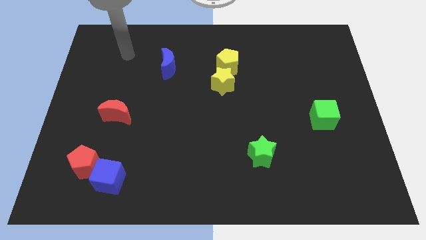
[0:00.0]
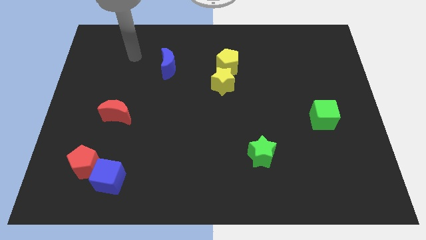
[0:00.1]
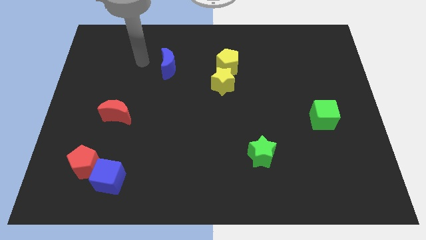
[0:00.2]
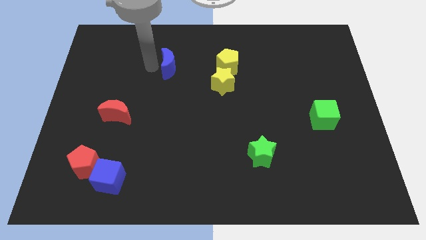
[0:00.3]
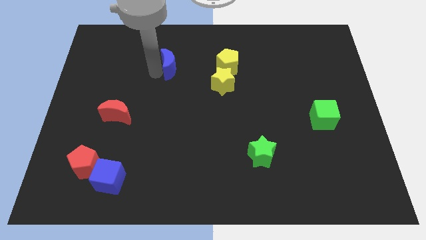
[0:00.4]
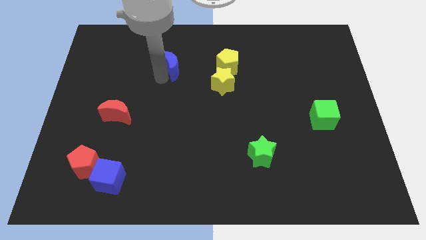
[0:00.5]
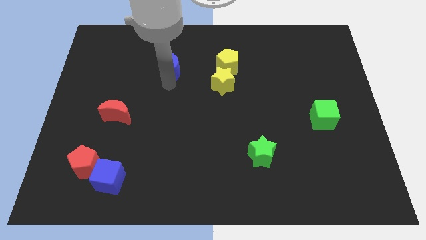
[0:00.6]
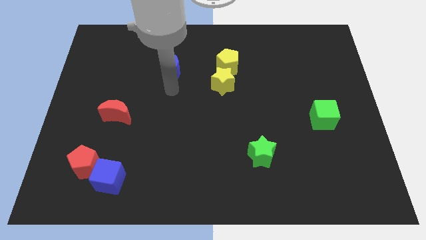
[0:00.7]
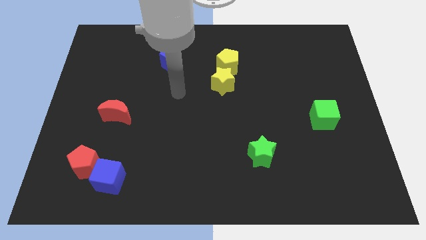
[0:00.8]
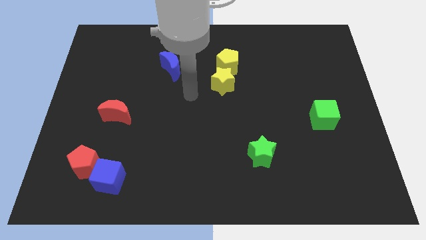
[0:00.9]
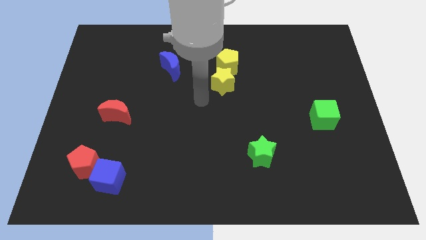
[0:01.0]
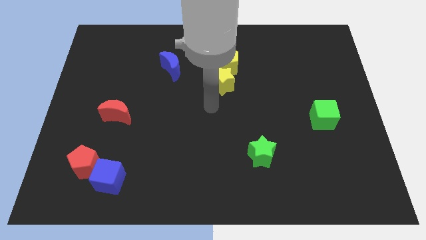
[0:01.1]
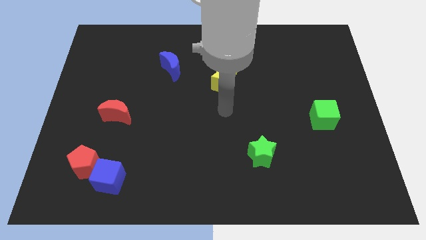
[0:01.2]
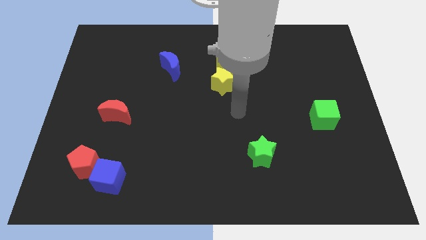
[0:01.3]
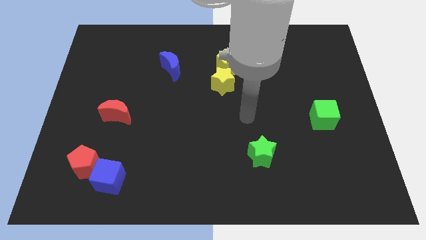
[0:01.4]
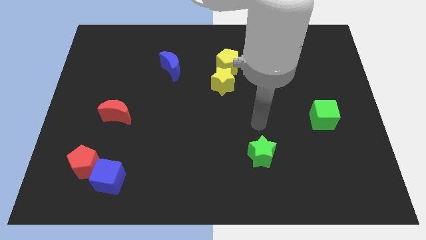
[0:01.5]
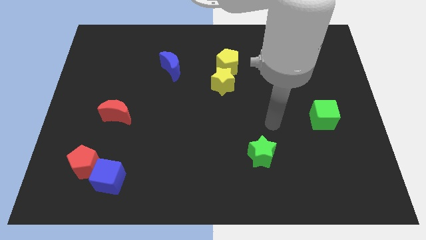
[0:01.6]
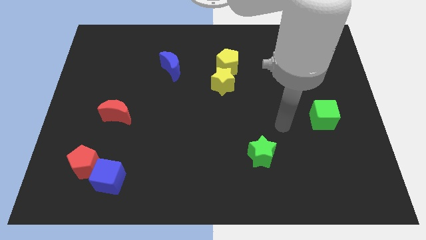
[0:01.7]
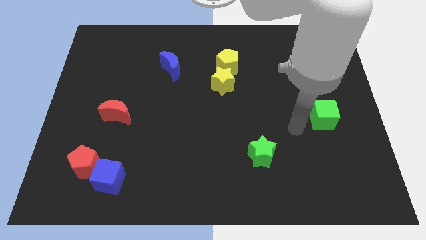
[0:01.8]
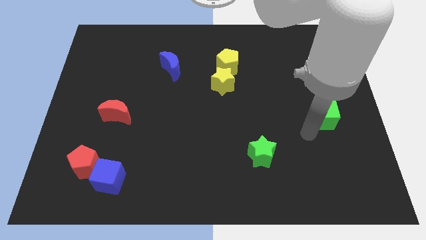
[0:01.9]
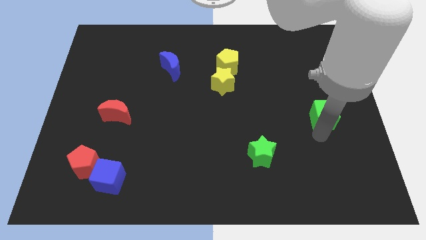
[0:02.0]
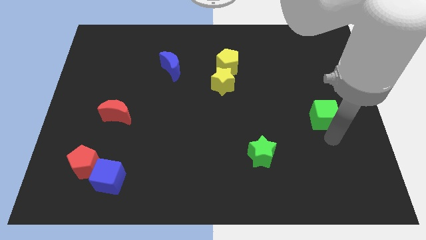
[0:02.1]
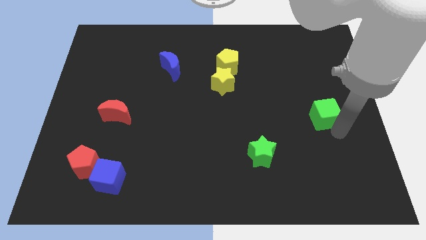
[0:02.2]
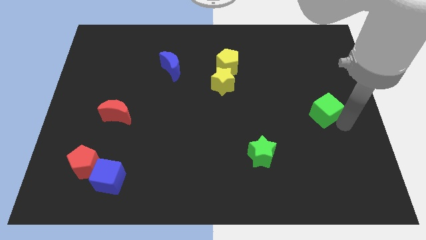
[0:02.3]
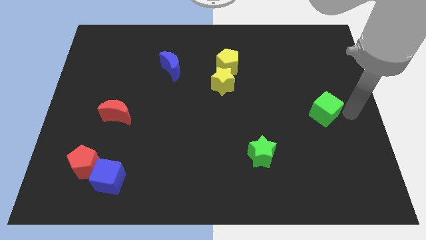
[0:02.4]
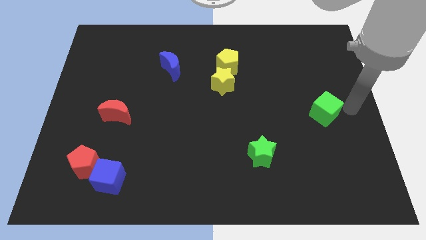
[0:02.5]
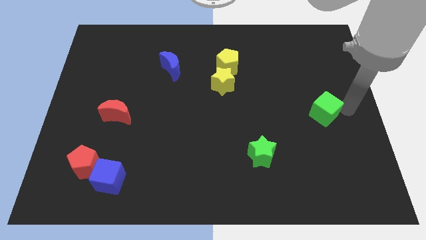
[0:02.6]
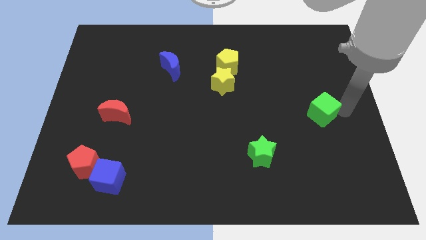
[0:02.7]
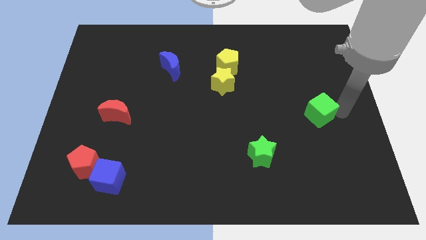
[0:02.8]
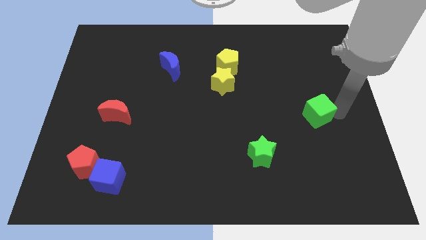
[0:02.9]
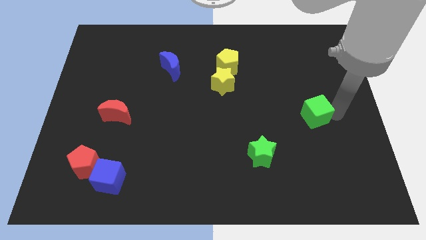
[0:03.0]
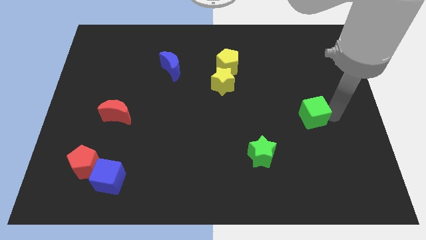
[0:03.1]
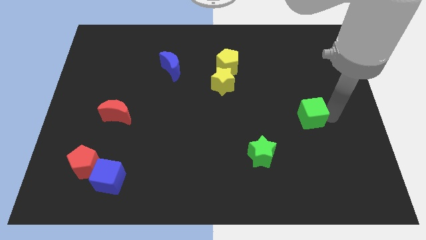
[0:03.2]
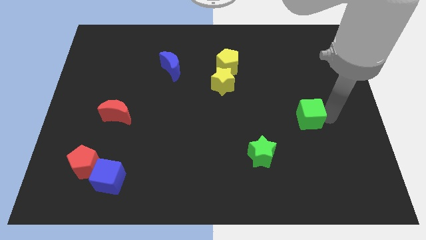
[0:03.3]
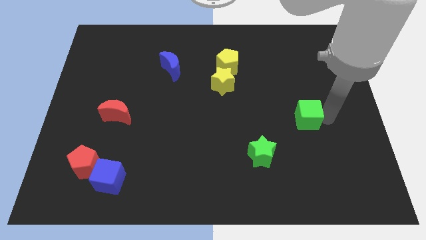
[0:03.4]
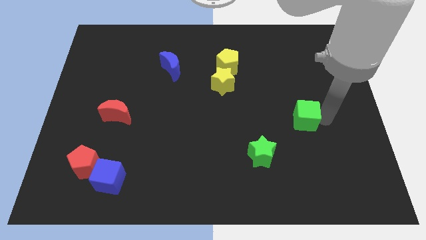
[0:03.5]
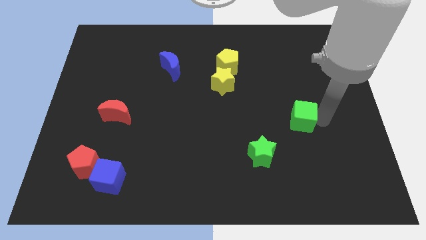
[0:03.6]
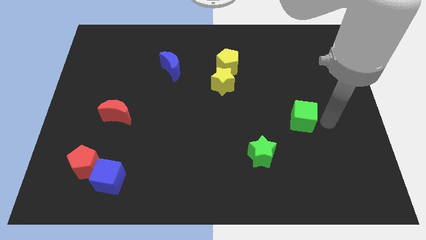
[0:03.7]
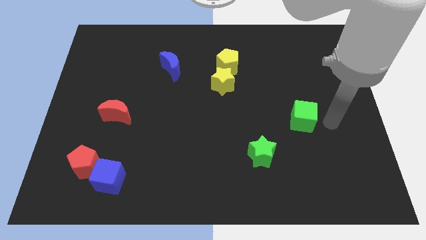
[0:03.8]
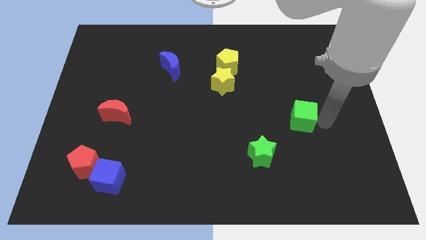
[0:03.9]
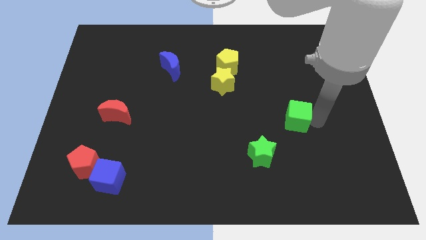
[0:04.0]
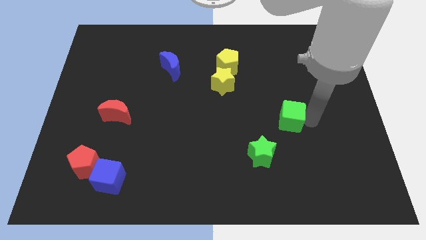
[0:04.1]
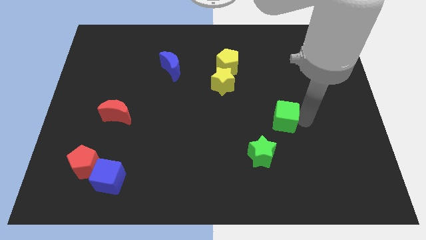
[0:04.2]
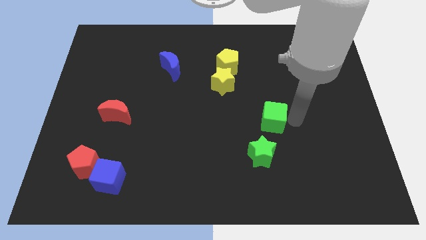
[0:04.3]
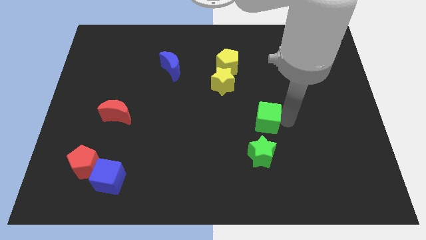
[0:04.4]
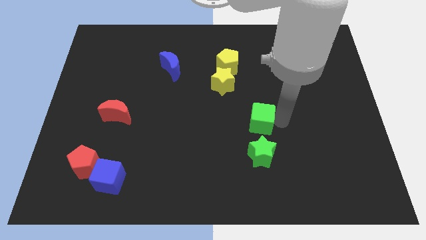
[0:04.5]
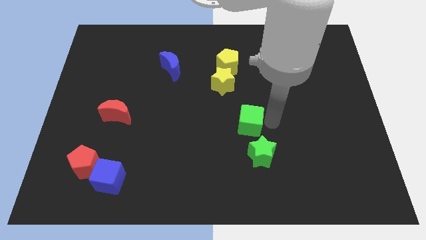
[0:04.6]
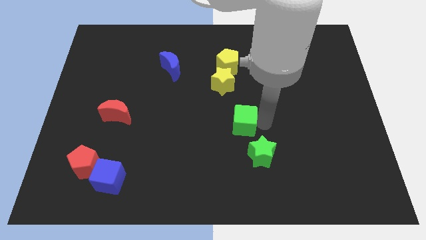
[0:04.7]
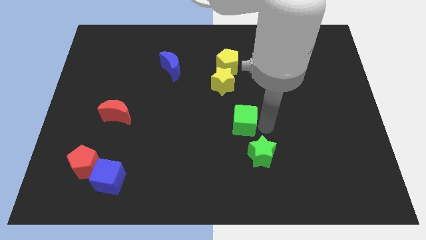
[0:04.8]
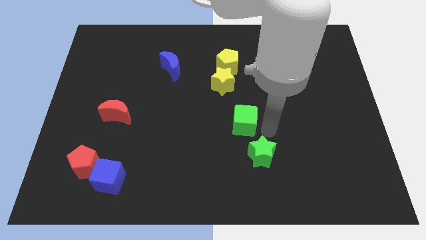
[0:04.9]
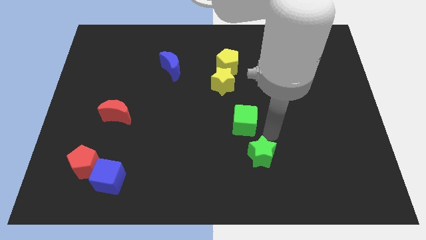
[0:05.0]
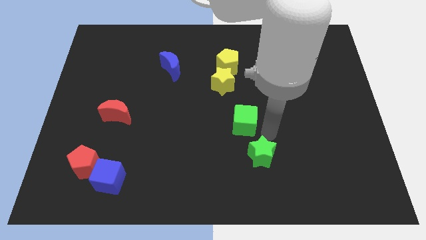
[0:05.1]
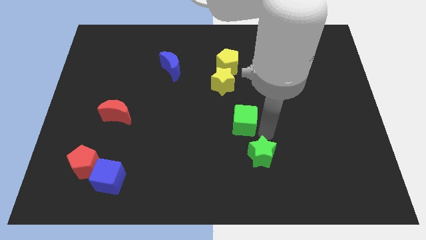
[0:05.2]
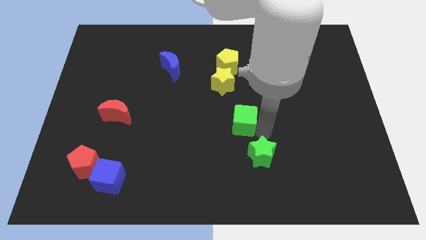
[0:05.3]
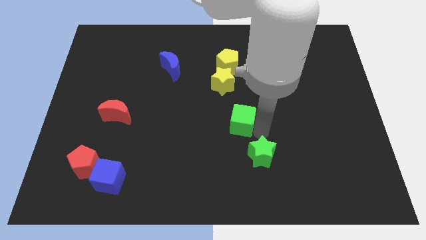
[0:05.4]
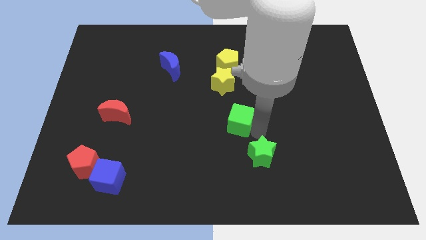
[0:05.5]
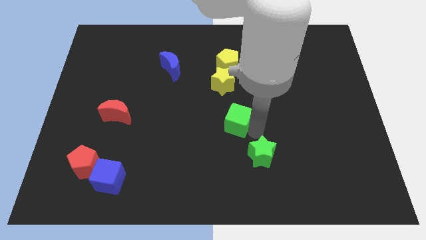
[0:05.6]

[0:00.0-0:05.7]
move the green cube to the left

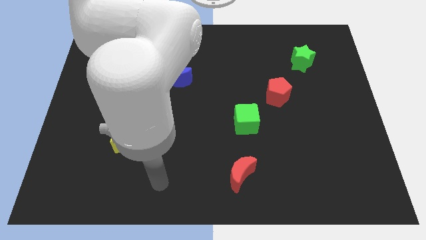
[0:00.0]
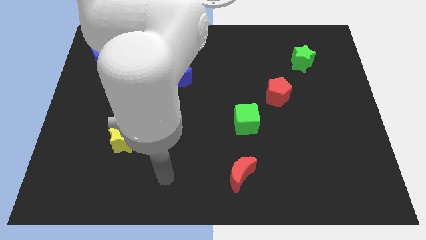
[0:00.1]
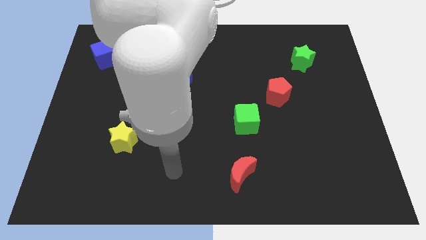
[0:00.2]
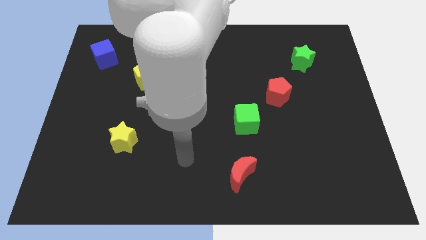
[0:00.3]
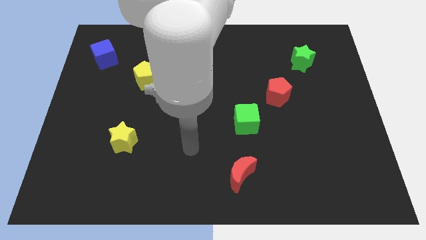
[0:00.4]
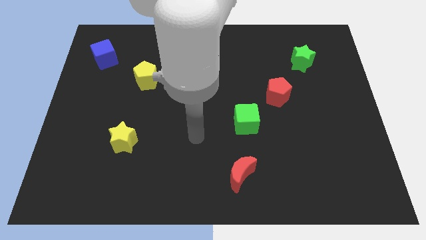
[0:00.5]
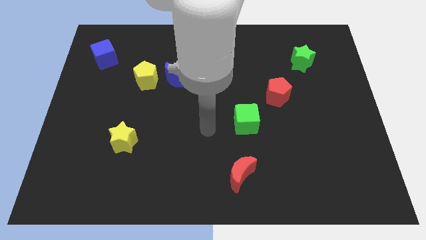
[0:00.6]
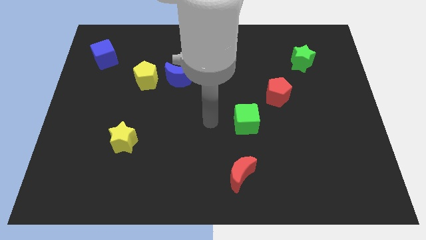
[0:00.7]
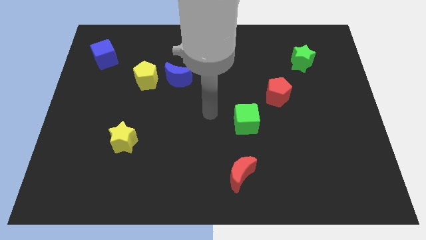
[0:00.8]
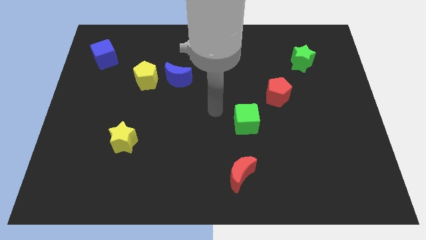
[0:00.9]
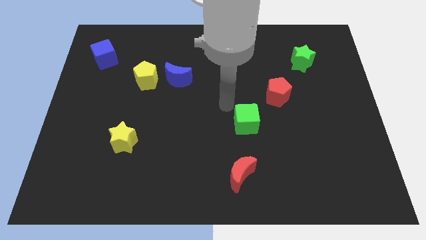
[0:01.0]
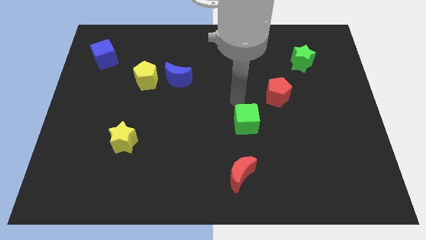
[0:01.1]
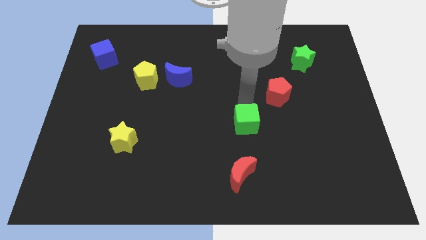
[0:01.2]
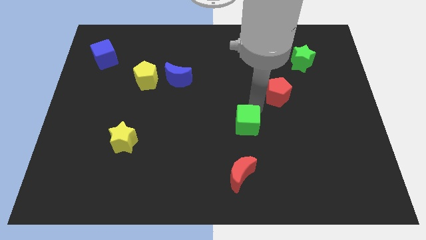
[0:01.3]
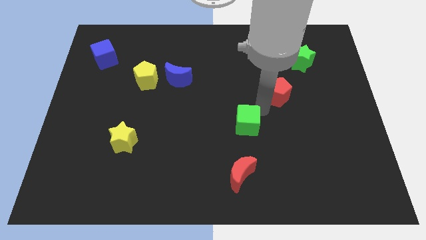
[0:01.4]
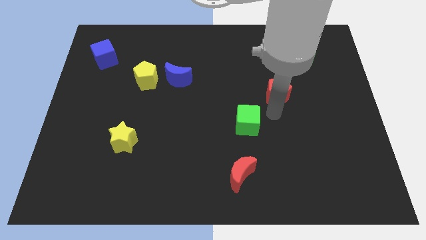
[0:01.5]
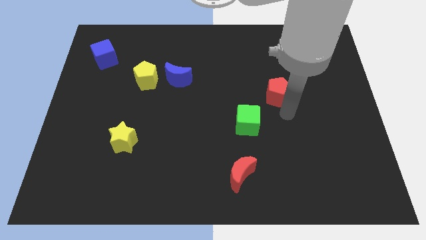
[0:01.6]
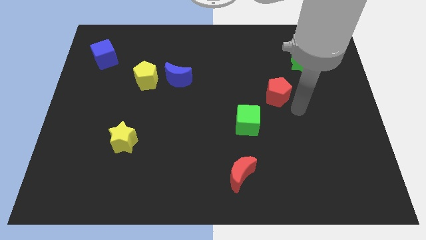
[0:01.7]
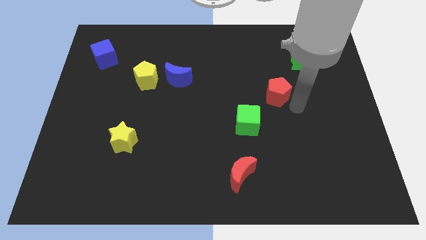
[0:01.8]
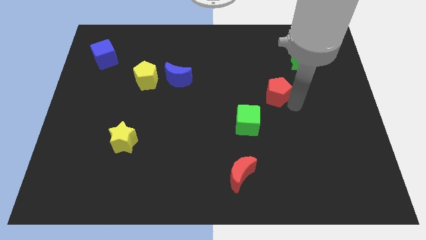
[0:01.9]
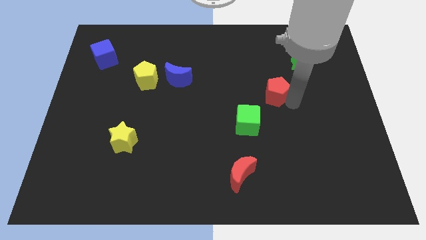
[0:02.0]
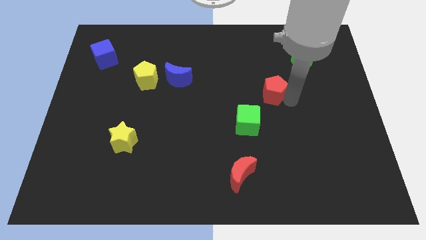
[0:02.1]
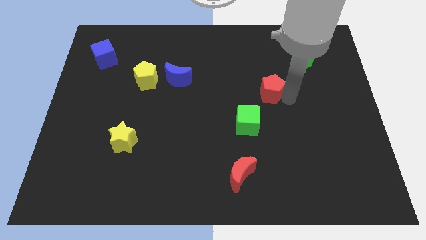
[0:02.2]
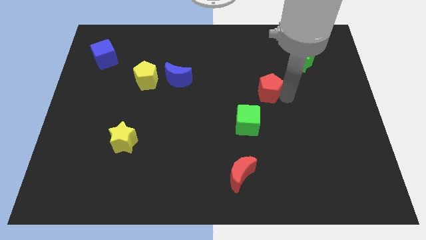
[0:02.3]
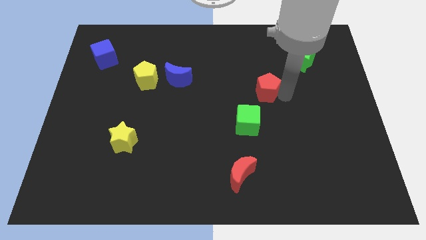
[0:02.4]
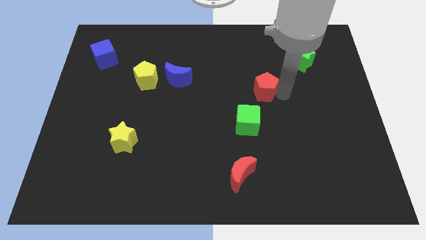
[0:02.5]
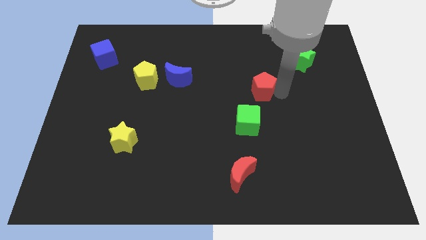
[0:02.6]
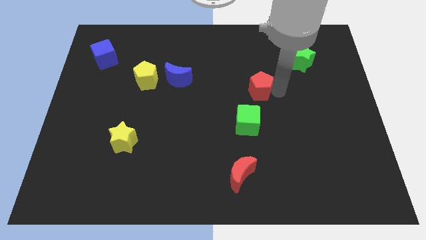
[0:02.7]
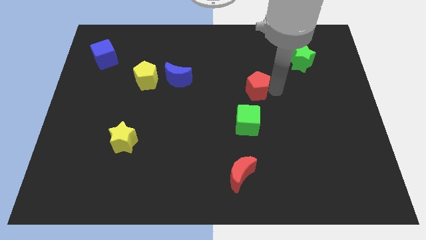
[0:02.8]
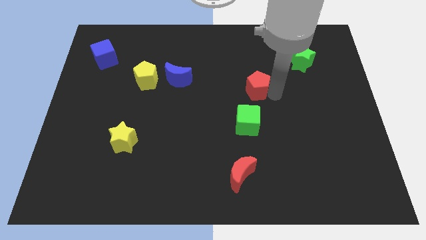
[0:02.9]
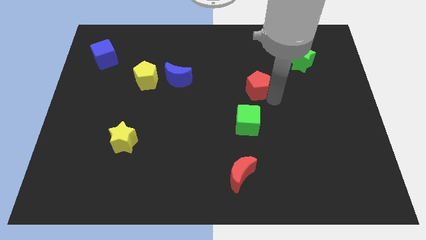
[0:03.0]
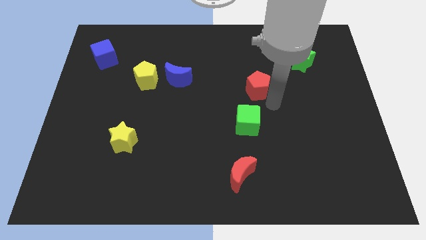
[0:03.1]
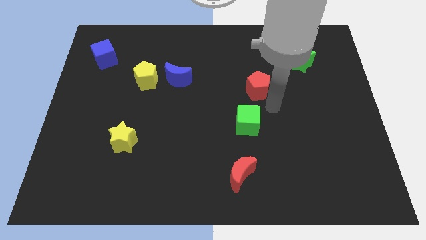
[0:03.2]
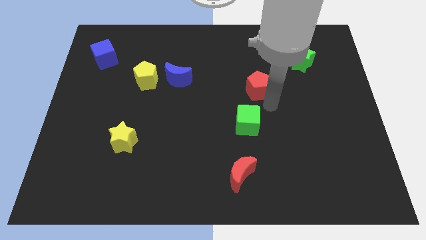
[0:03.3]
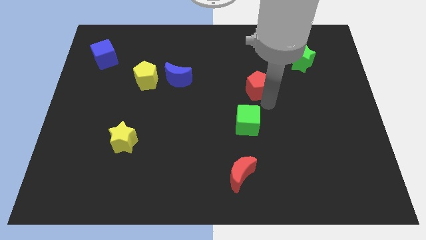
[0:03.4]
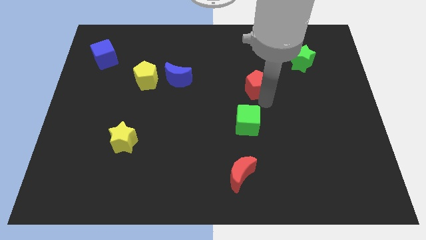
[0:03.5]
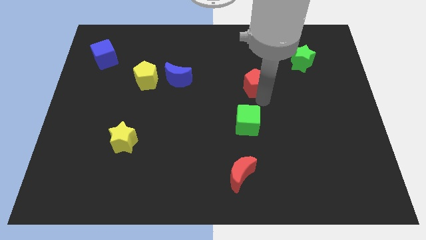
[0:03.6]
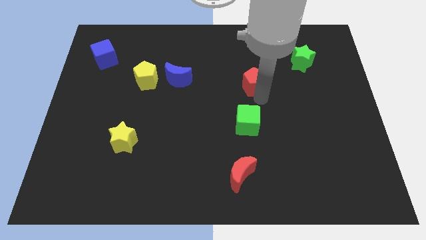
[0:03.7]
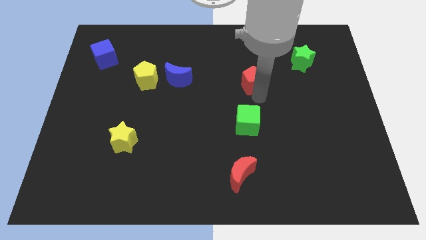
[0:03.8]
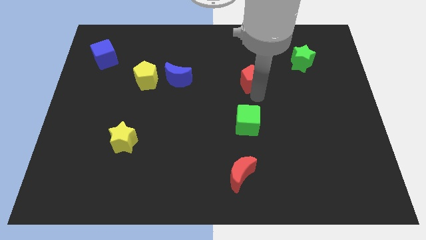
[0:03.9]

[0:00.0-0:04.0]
slightly push the red pentagon upwards and left
